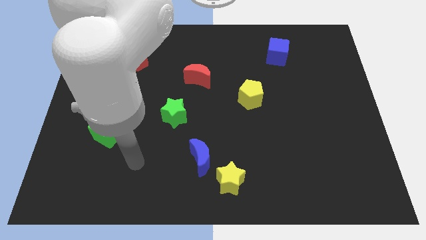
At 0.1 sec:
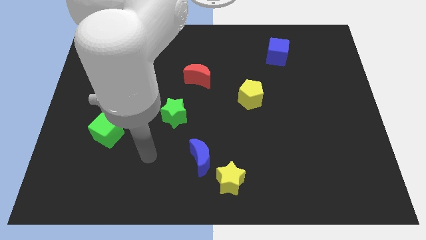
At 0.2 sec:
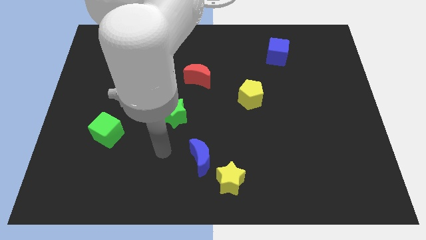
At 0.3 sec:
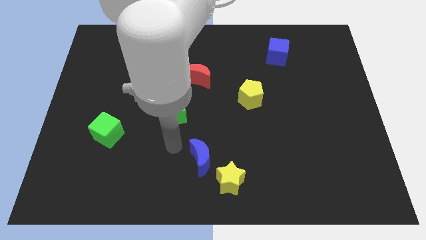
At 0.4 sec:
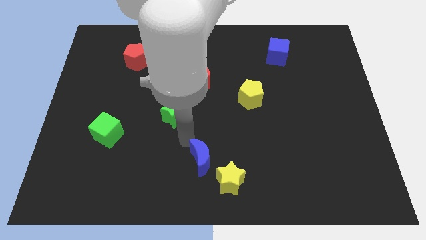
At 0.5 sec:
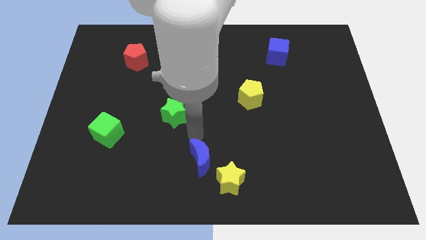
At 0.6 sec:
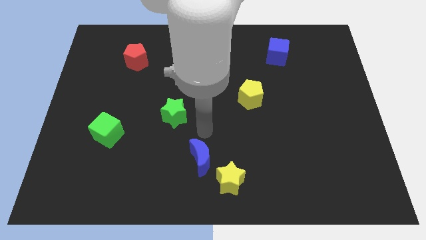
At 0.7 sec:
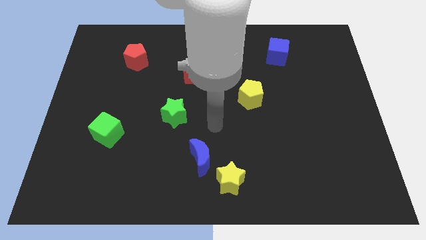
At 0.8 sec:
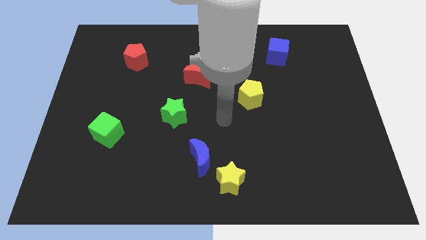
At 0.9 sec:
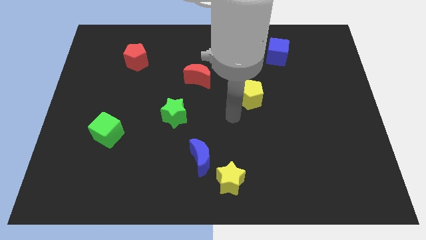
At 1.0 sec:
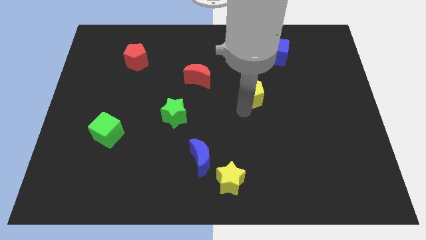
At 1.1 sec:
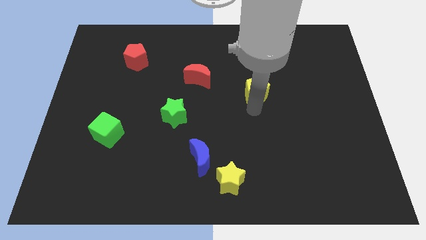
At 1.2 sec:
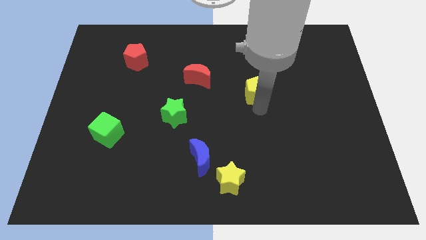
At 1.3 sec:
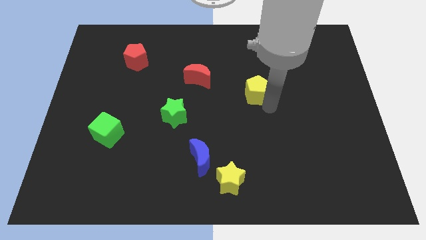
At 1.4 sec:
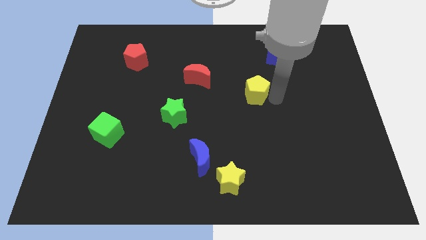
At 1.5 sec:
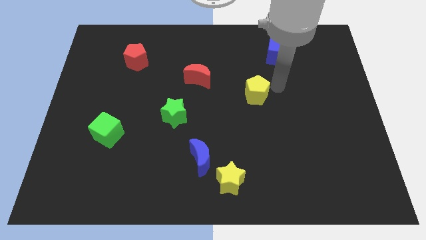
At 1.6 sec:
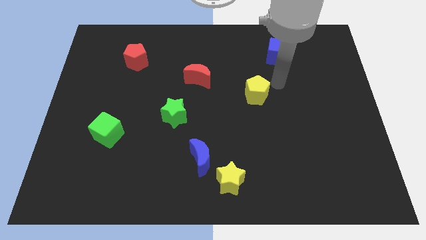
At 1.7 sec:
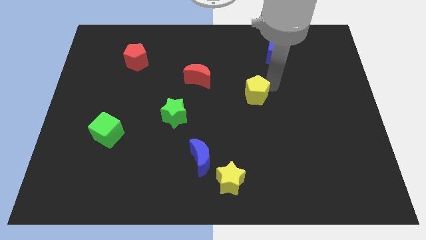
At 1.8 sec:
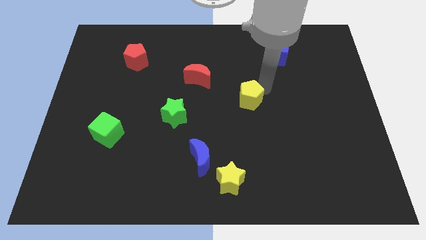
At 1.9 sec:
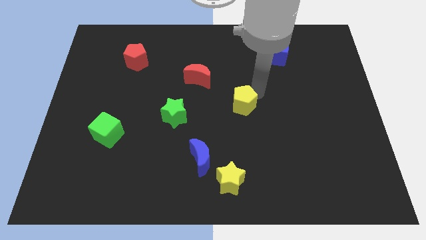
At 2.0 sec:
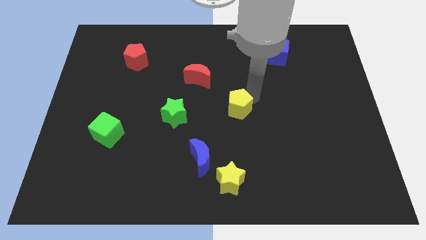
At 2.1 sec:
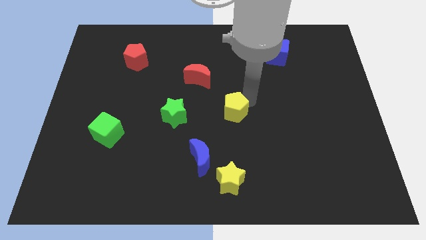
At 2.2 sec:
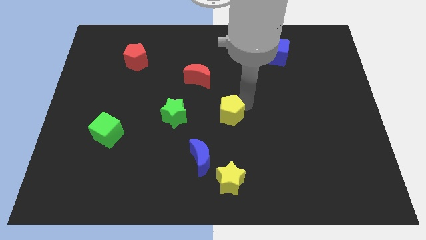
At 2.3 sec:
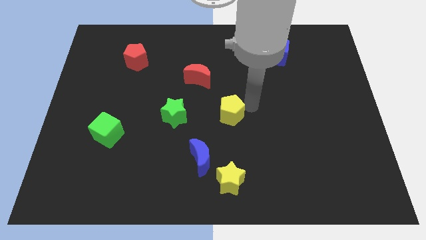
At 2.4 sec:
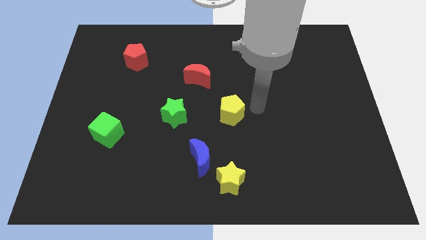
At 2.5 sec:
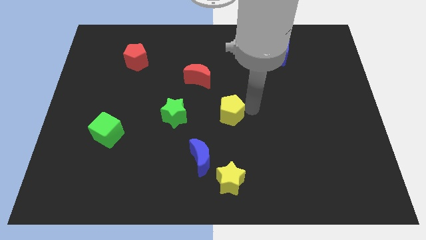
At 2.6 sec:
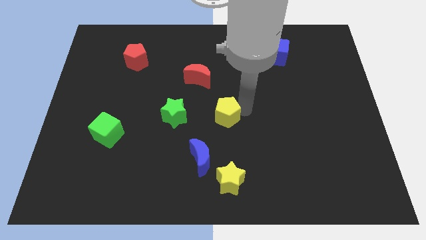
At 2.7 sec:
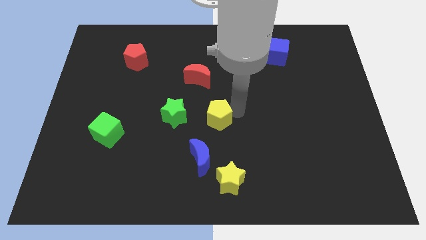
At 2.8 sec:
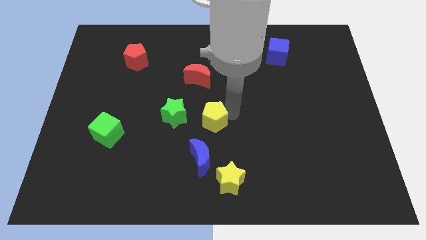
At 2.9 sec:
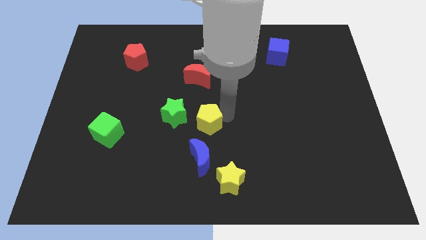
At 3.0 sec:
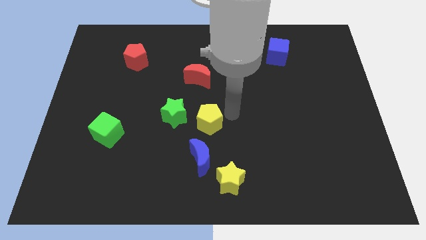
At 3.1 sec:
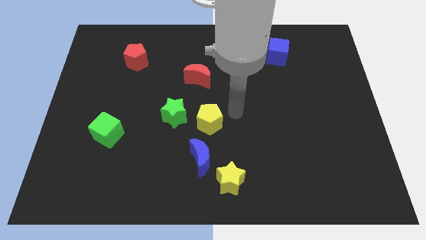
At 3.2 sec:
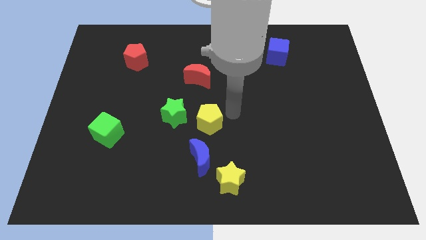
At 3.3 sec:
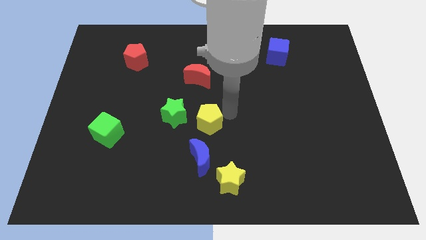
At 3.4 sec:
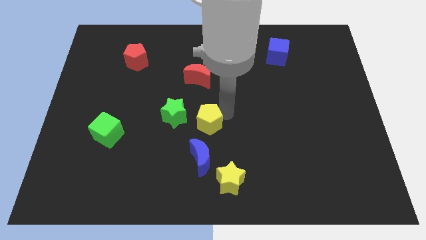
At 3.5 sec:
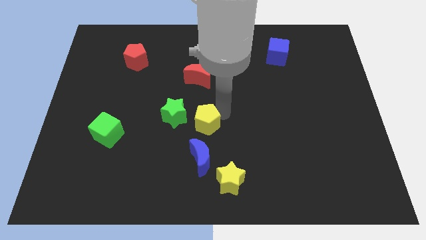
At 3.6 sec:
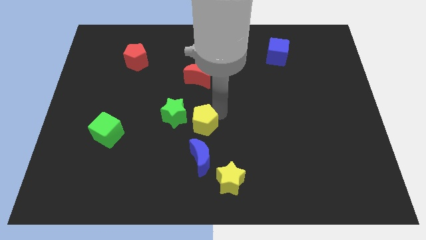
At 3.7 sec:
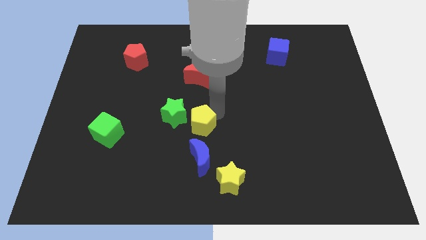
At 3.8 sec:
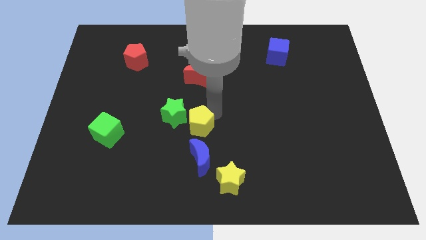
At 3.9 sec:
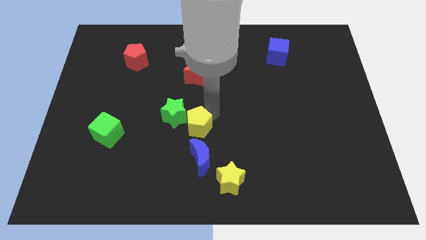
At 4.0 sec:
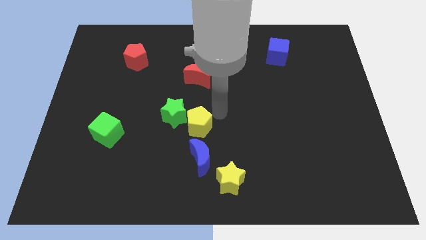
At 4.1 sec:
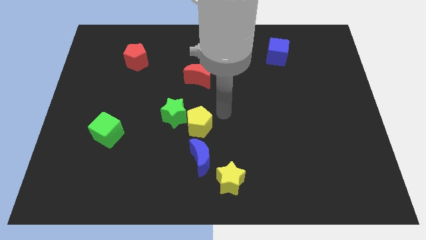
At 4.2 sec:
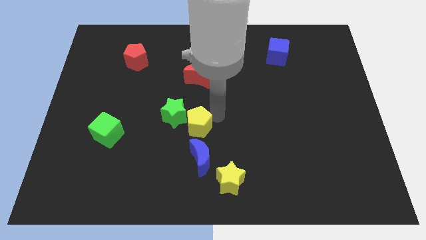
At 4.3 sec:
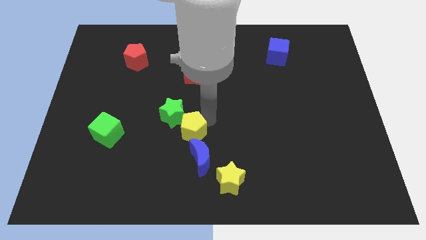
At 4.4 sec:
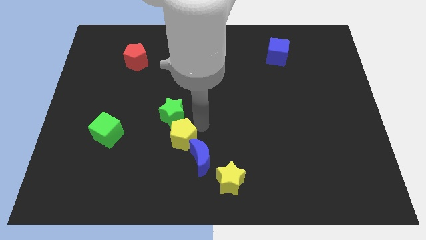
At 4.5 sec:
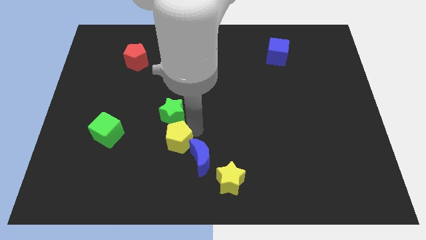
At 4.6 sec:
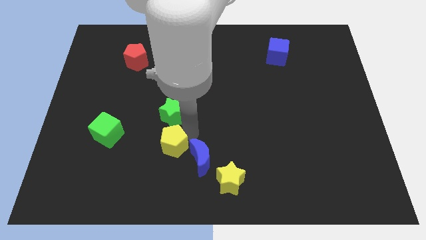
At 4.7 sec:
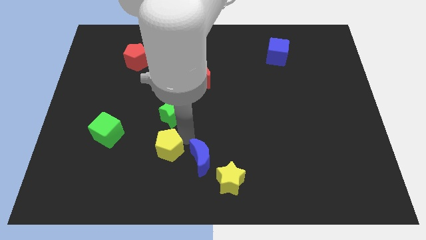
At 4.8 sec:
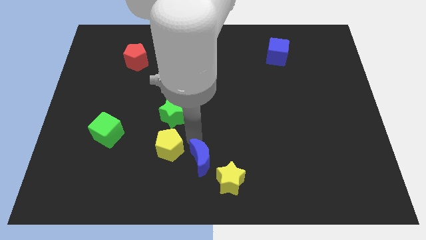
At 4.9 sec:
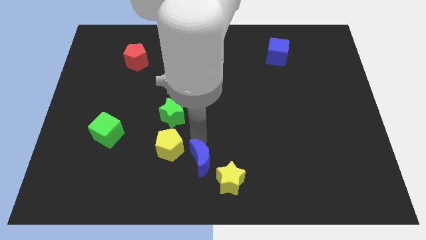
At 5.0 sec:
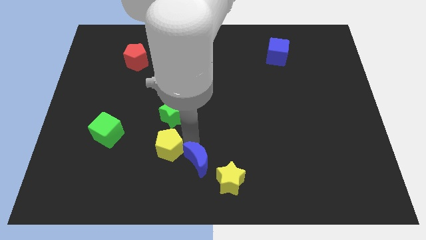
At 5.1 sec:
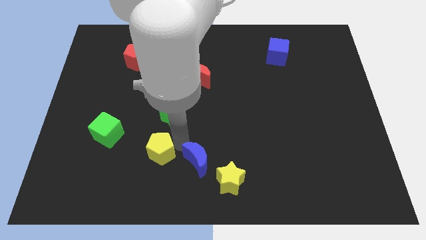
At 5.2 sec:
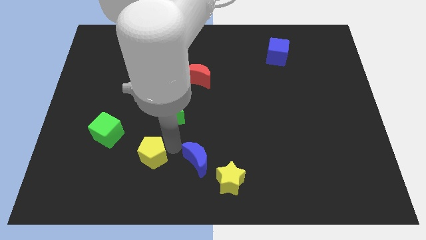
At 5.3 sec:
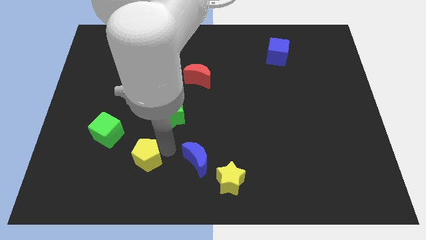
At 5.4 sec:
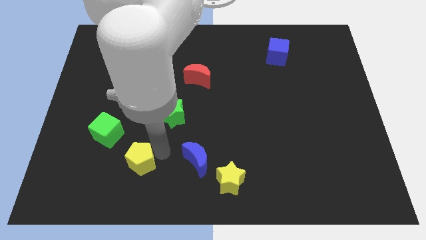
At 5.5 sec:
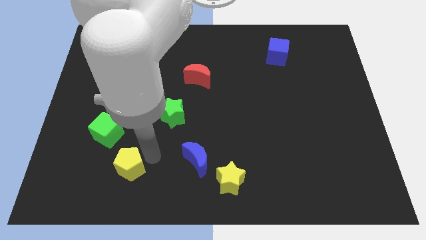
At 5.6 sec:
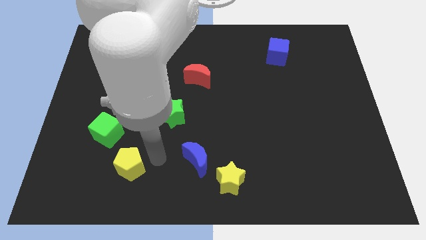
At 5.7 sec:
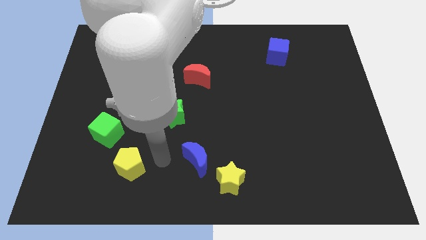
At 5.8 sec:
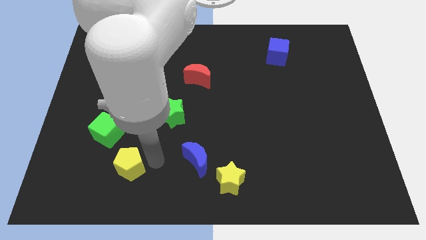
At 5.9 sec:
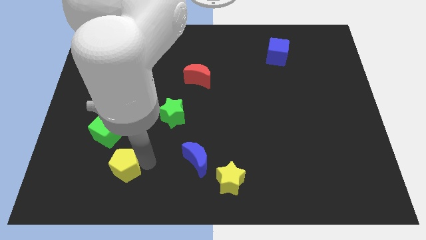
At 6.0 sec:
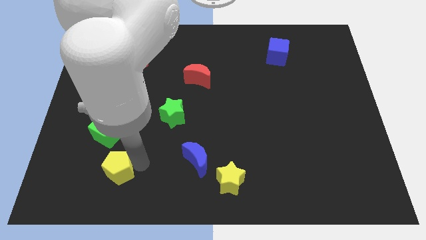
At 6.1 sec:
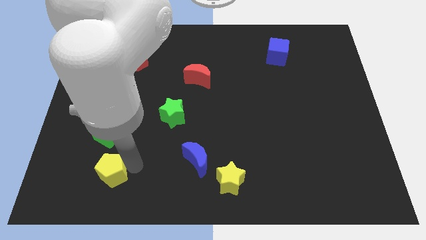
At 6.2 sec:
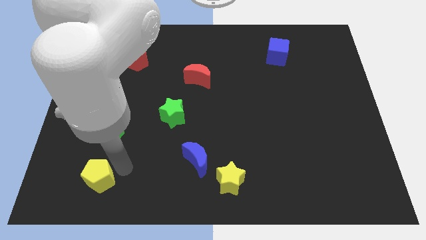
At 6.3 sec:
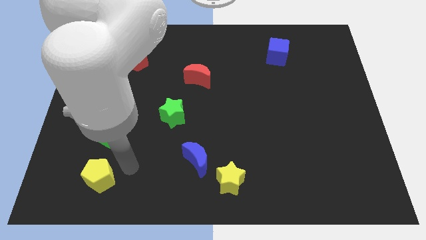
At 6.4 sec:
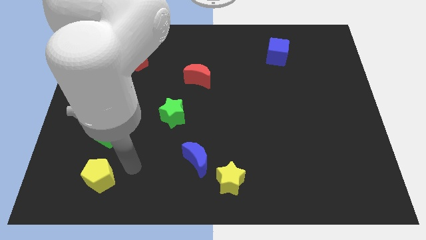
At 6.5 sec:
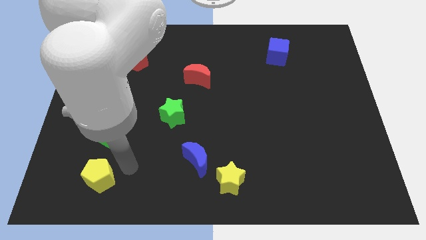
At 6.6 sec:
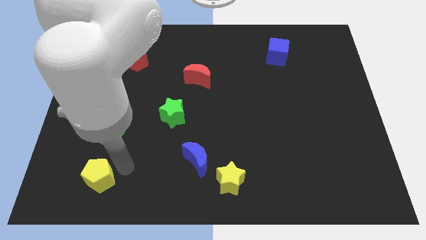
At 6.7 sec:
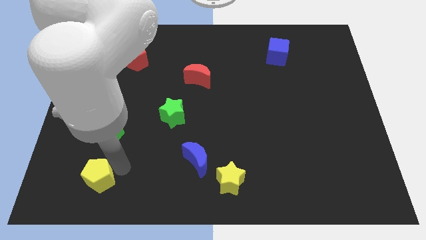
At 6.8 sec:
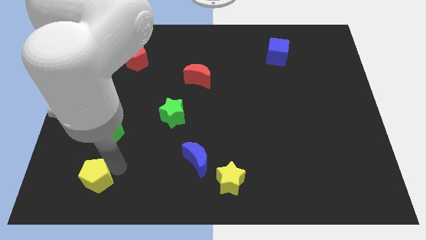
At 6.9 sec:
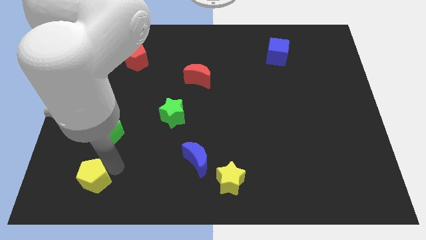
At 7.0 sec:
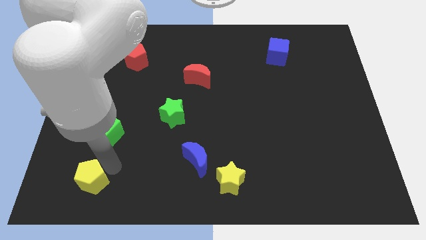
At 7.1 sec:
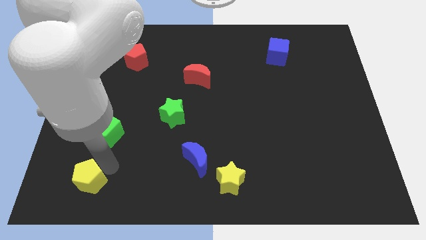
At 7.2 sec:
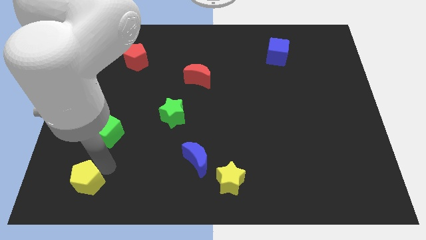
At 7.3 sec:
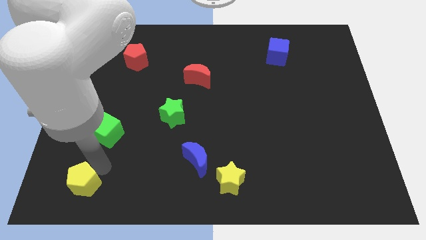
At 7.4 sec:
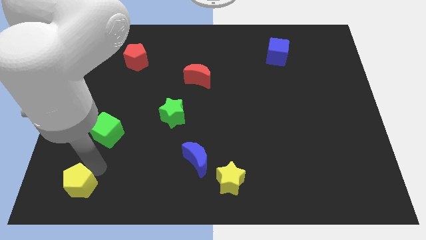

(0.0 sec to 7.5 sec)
put the yellow pentagon to the bottom left of the board
